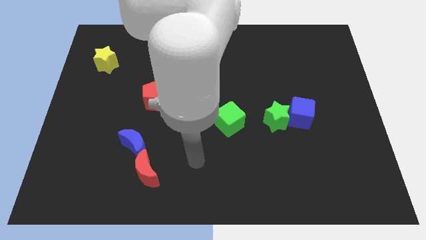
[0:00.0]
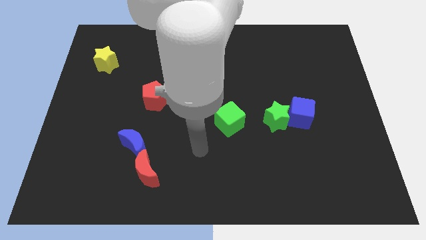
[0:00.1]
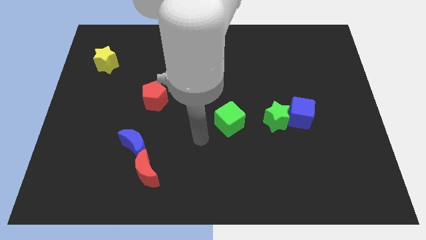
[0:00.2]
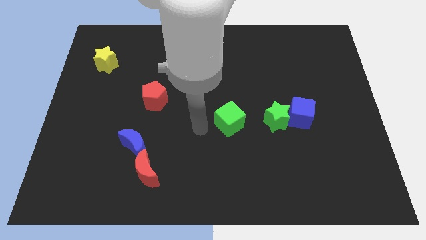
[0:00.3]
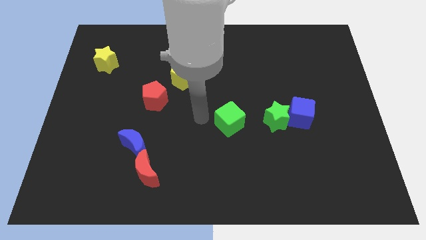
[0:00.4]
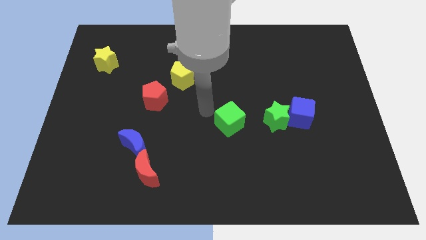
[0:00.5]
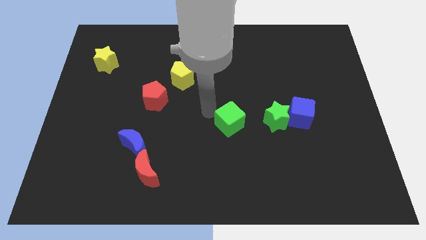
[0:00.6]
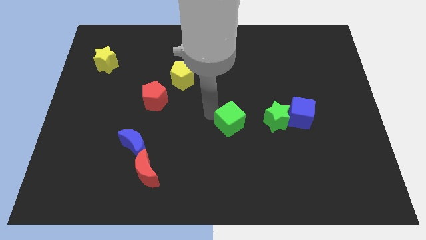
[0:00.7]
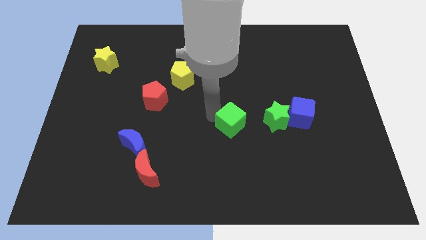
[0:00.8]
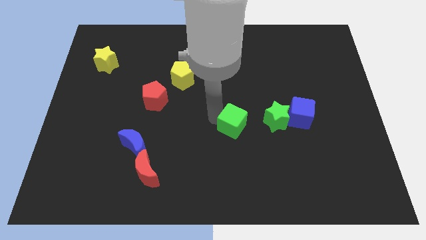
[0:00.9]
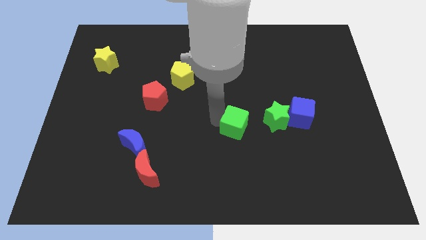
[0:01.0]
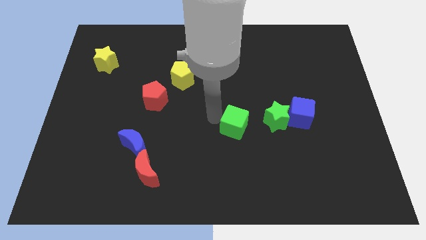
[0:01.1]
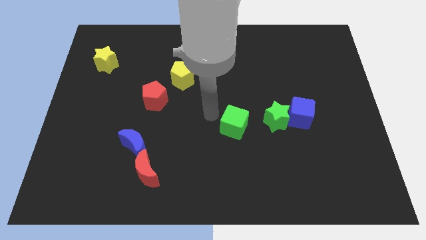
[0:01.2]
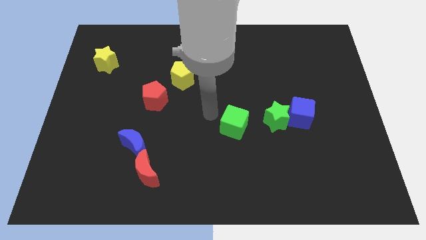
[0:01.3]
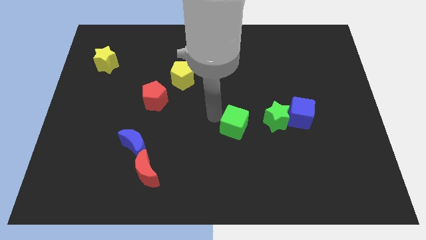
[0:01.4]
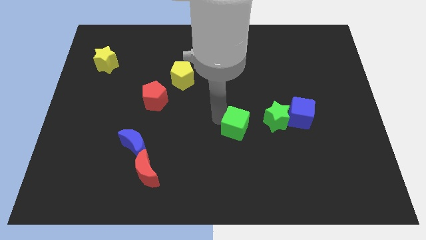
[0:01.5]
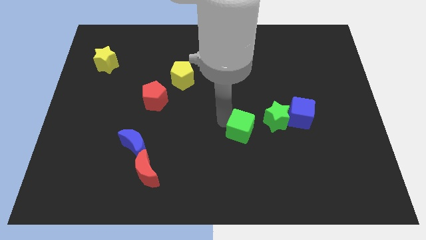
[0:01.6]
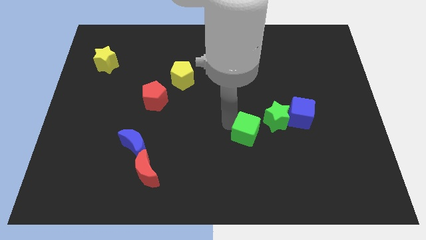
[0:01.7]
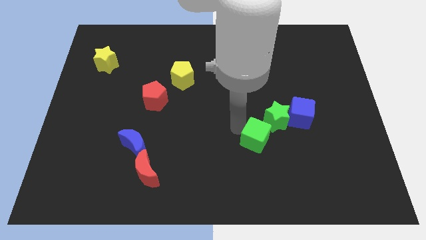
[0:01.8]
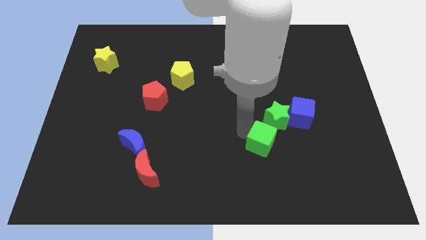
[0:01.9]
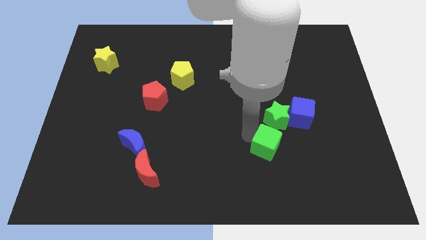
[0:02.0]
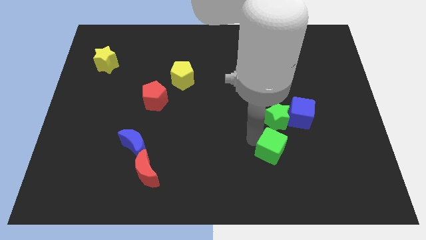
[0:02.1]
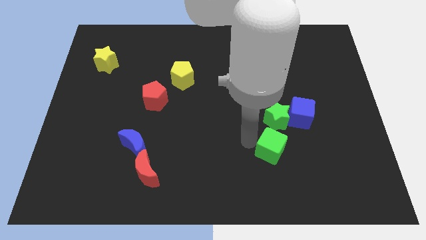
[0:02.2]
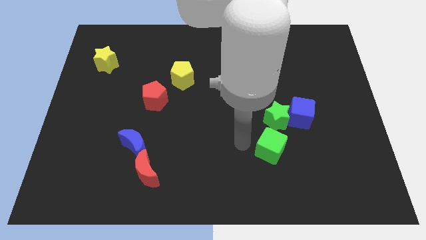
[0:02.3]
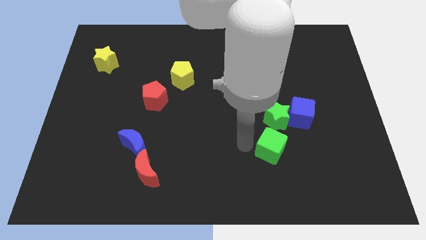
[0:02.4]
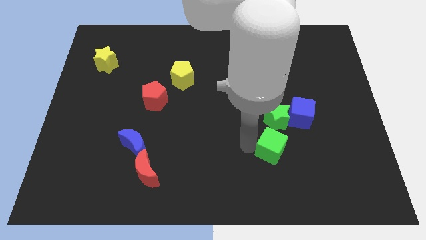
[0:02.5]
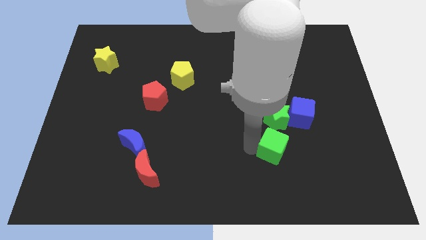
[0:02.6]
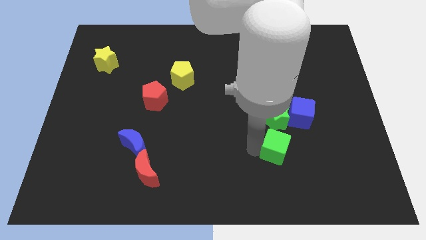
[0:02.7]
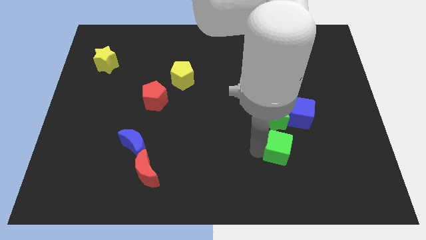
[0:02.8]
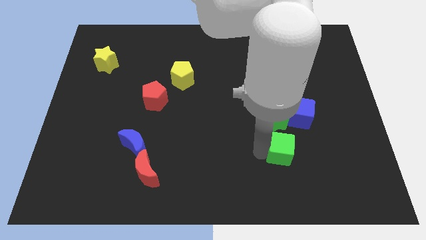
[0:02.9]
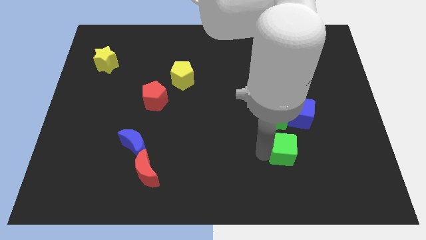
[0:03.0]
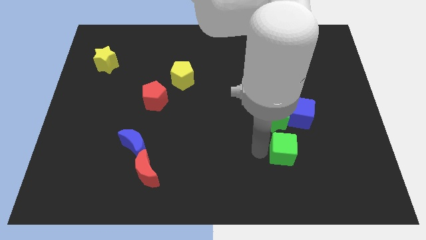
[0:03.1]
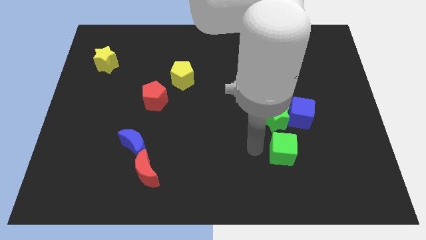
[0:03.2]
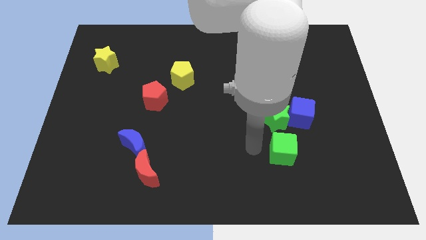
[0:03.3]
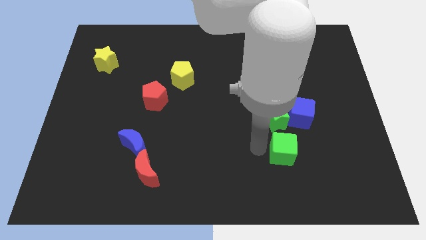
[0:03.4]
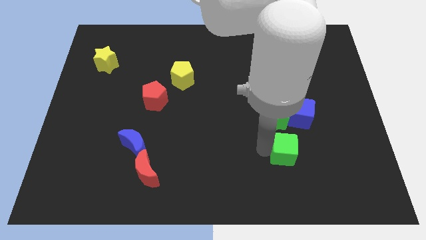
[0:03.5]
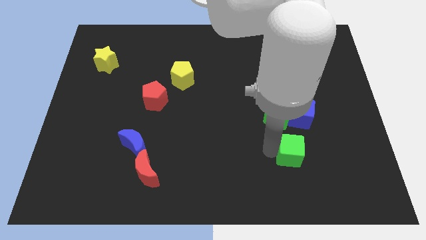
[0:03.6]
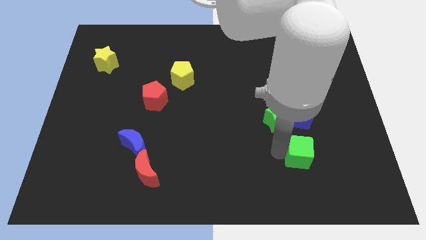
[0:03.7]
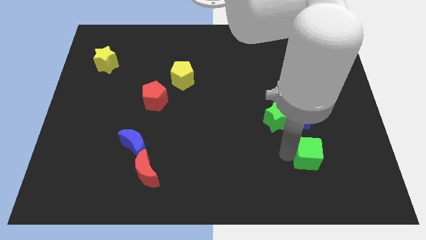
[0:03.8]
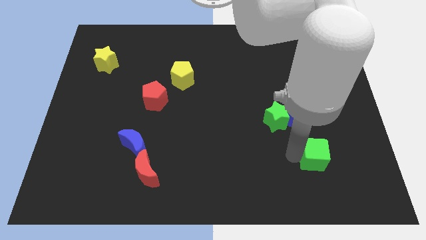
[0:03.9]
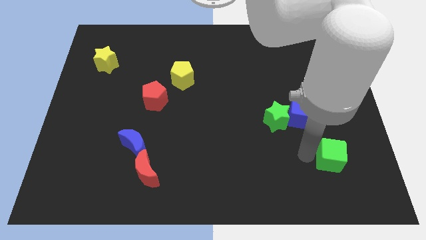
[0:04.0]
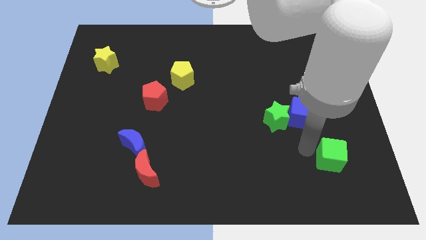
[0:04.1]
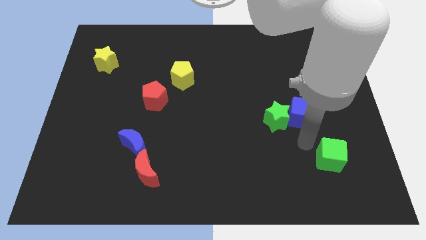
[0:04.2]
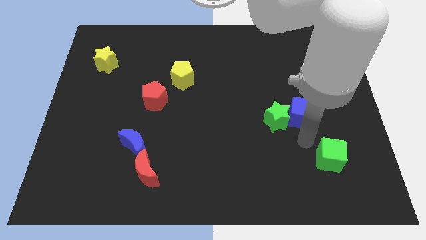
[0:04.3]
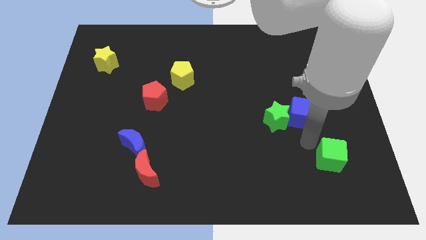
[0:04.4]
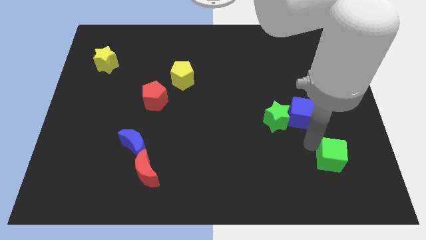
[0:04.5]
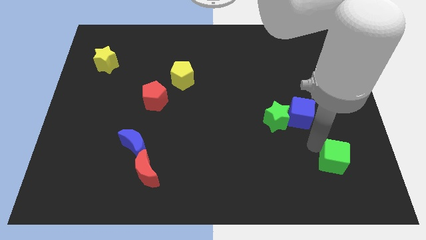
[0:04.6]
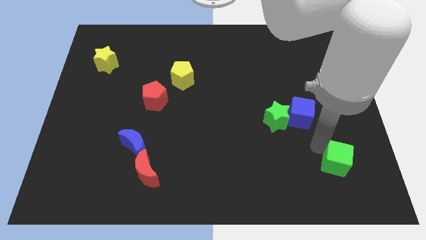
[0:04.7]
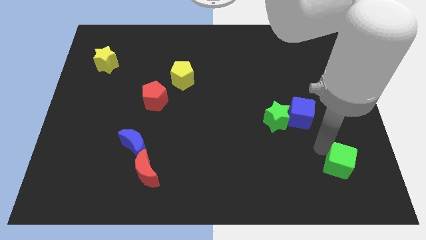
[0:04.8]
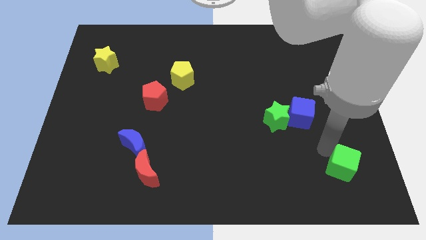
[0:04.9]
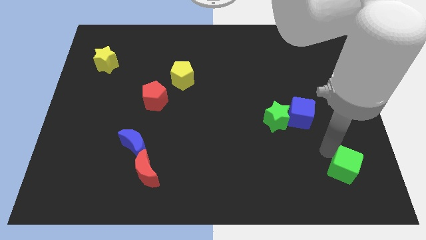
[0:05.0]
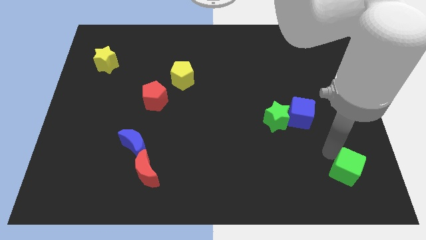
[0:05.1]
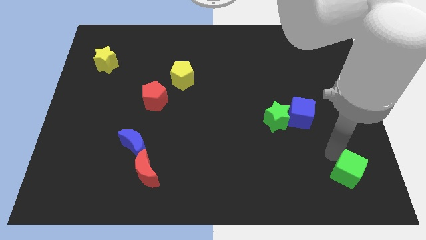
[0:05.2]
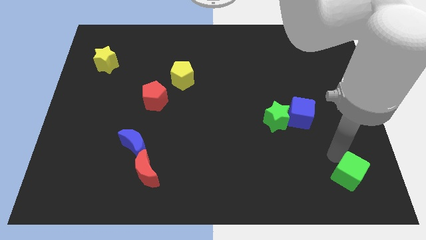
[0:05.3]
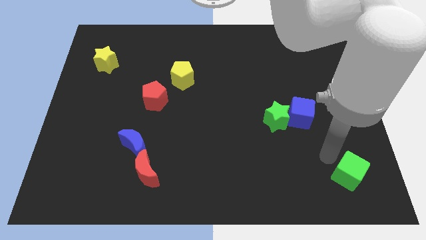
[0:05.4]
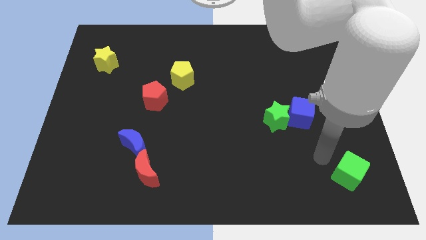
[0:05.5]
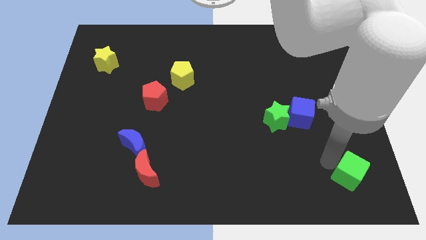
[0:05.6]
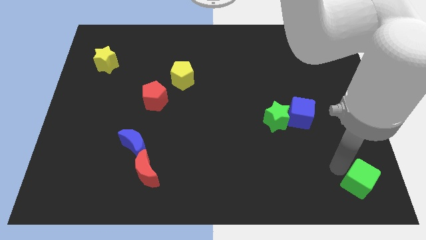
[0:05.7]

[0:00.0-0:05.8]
put the green cube to the bottom right

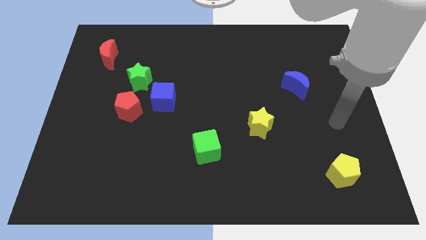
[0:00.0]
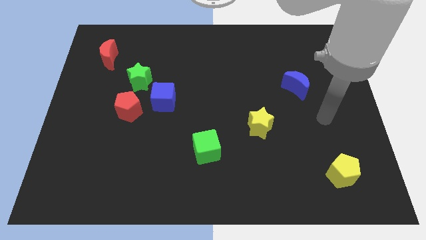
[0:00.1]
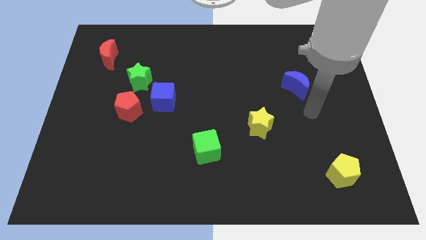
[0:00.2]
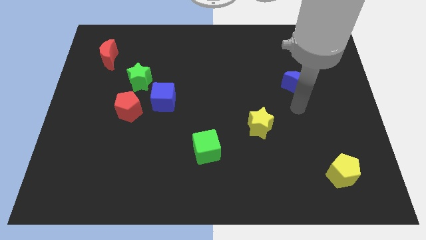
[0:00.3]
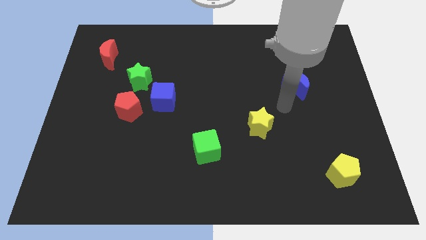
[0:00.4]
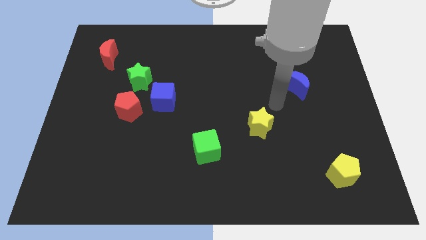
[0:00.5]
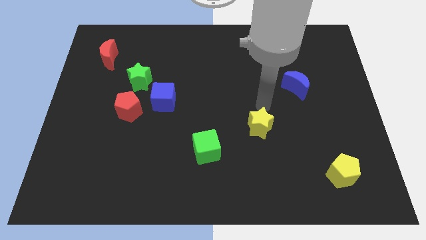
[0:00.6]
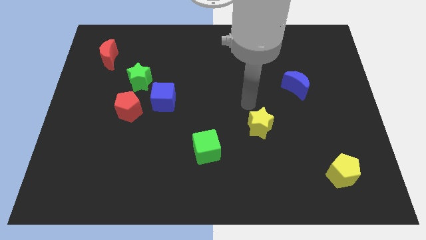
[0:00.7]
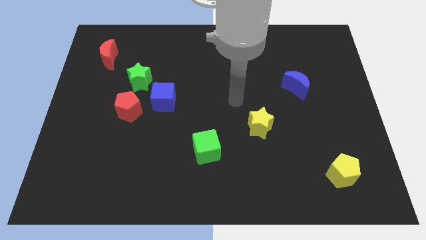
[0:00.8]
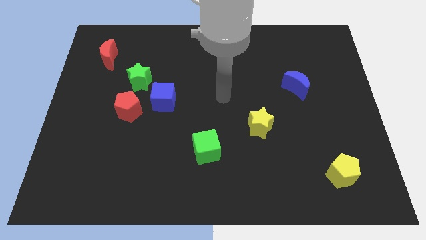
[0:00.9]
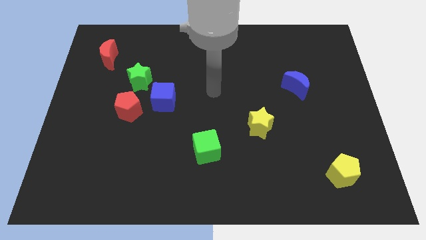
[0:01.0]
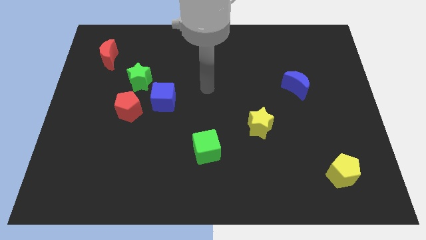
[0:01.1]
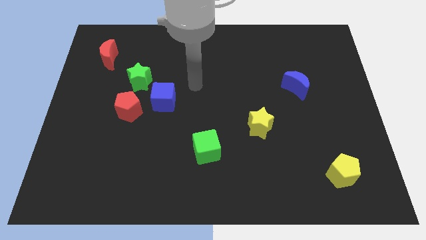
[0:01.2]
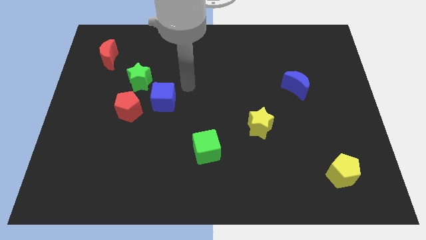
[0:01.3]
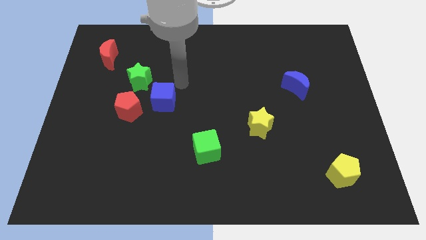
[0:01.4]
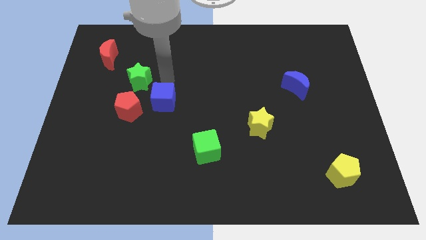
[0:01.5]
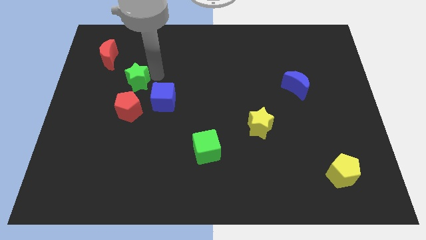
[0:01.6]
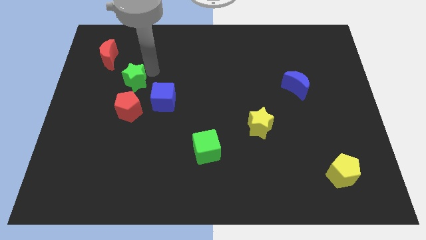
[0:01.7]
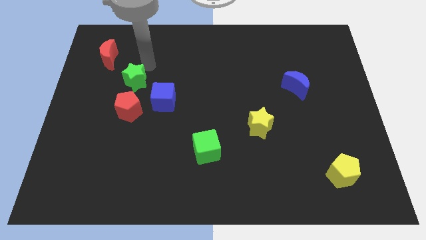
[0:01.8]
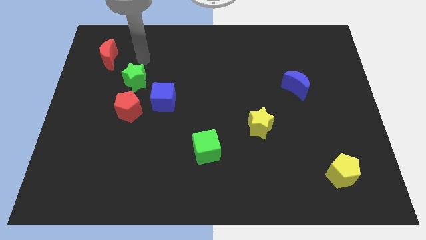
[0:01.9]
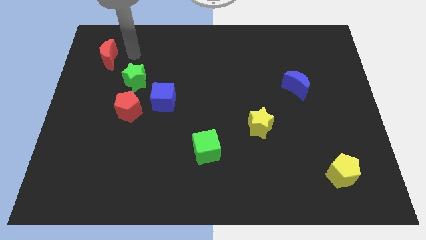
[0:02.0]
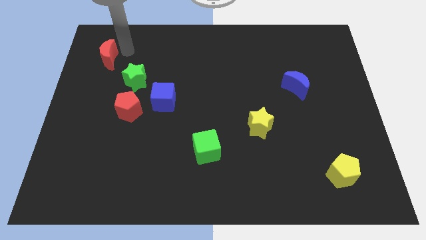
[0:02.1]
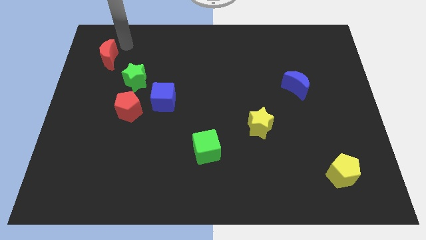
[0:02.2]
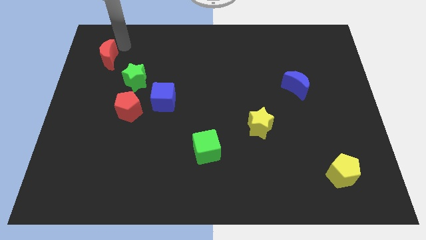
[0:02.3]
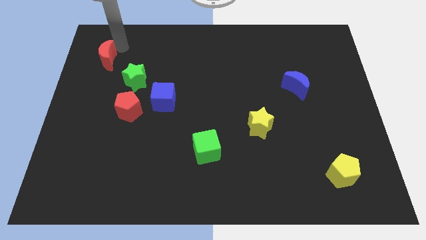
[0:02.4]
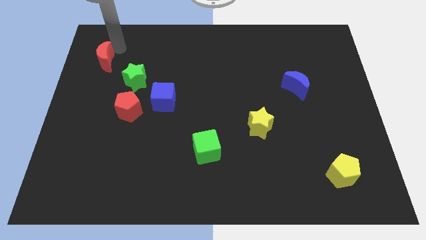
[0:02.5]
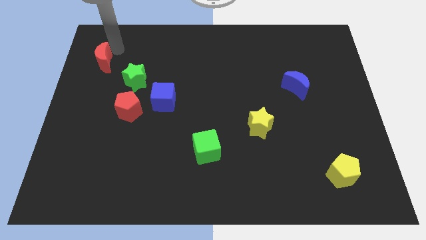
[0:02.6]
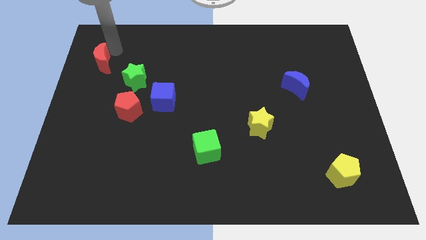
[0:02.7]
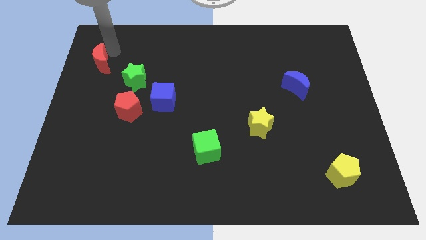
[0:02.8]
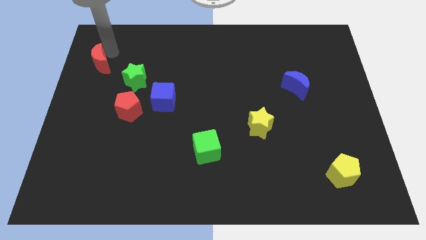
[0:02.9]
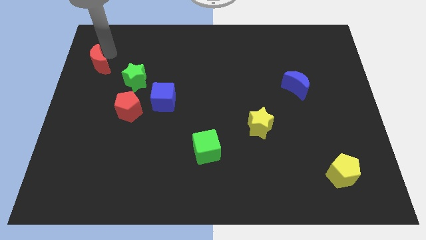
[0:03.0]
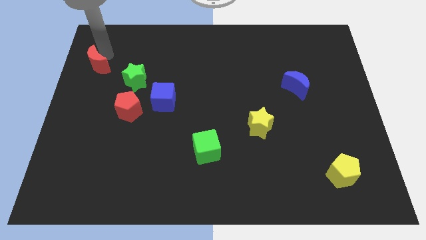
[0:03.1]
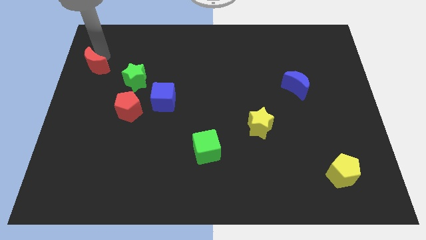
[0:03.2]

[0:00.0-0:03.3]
slide the red moon to the left side of the board
